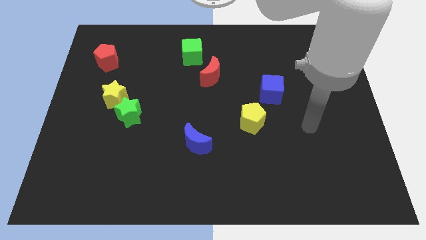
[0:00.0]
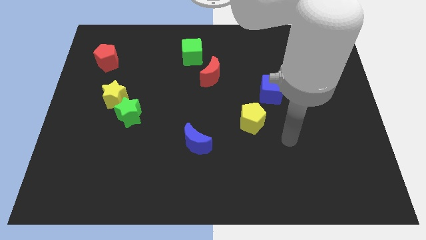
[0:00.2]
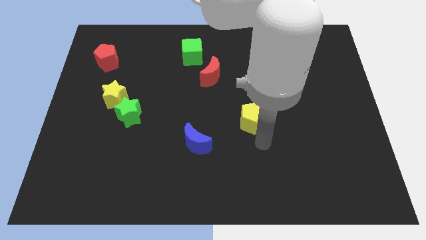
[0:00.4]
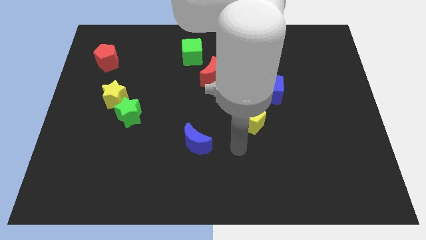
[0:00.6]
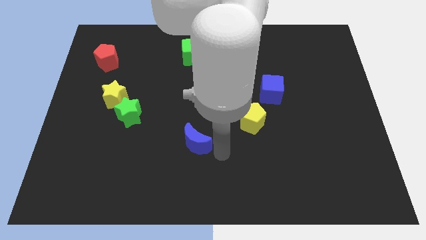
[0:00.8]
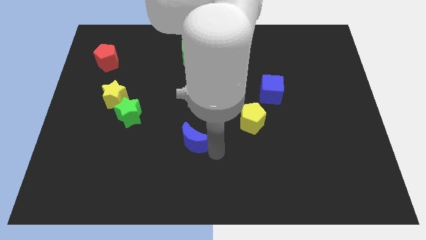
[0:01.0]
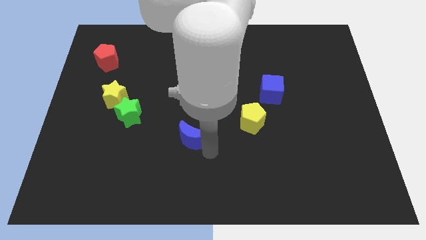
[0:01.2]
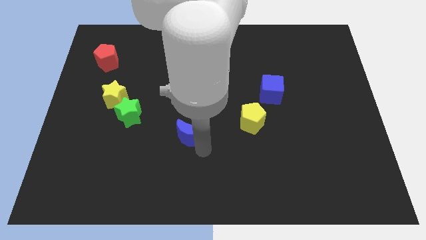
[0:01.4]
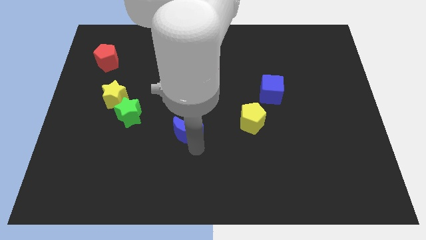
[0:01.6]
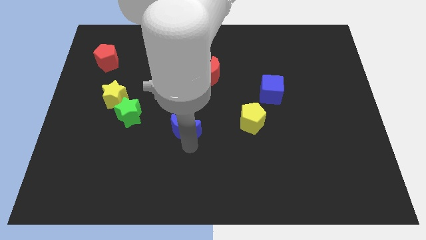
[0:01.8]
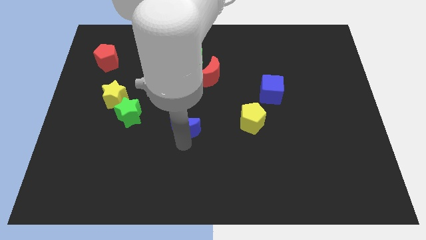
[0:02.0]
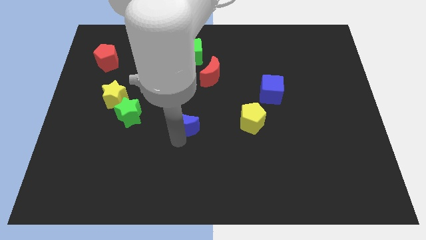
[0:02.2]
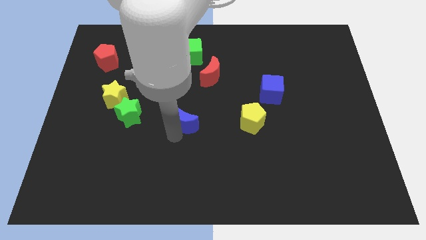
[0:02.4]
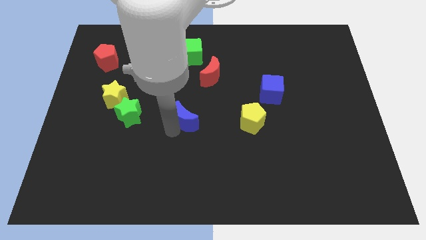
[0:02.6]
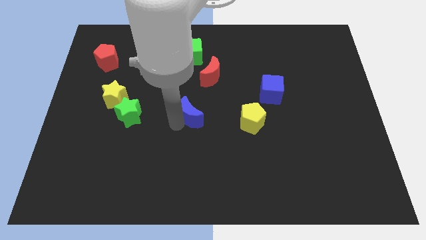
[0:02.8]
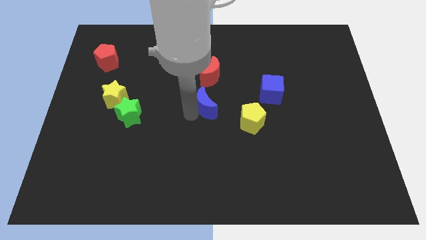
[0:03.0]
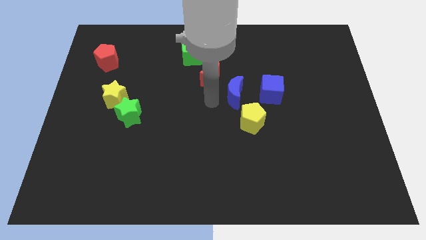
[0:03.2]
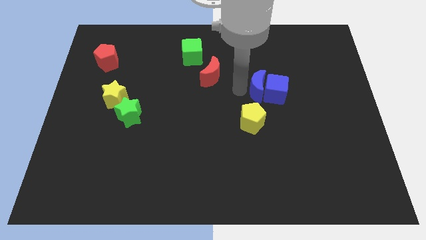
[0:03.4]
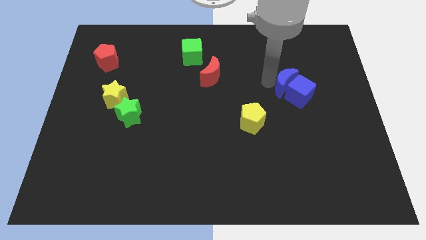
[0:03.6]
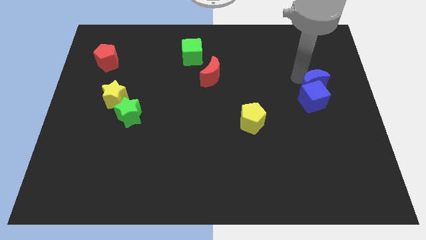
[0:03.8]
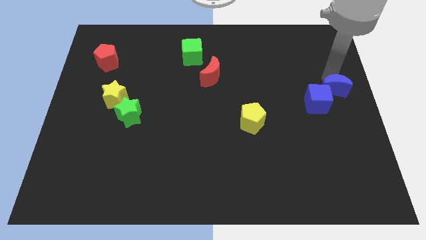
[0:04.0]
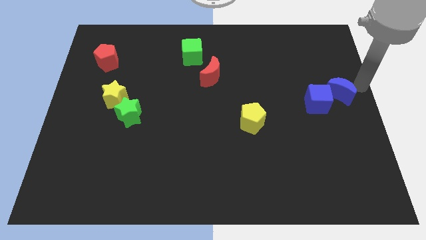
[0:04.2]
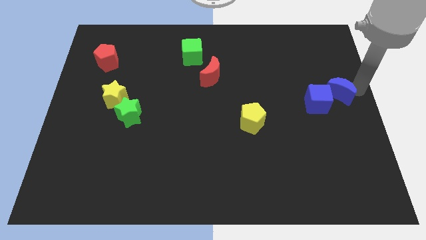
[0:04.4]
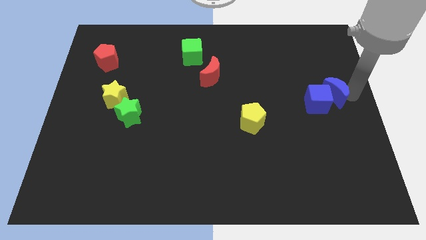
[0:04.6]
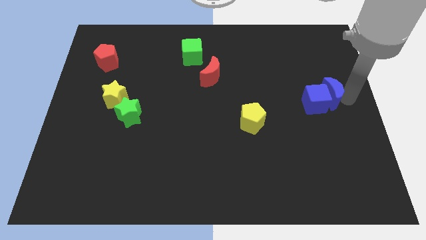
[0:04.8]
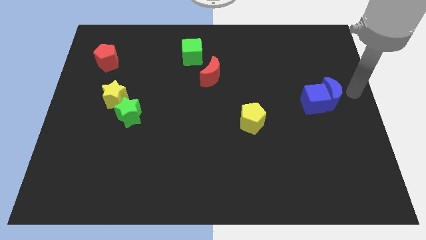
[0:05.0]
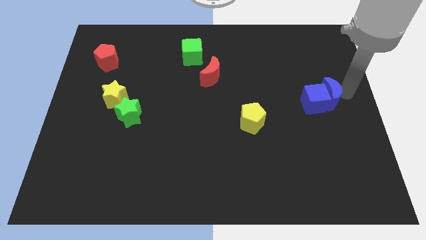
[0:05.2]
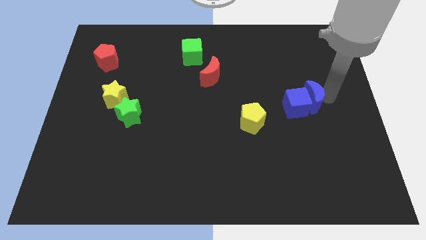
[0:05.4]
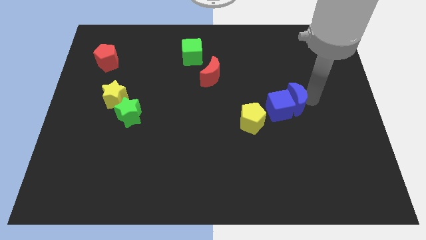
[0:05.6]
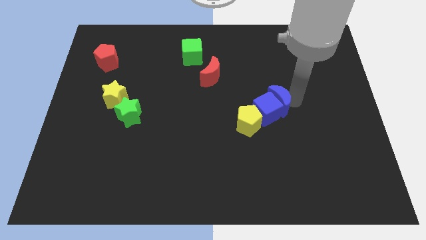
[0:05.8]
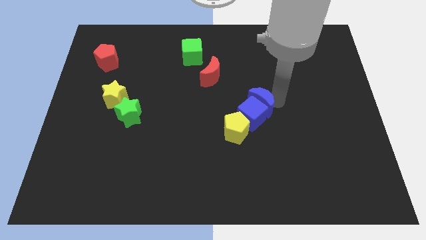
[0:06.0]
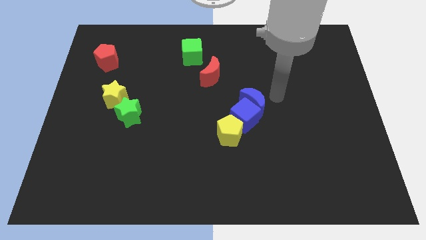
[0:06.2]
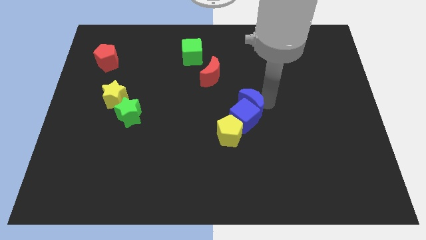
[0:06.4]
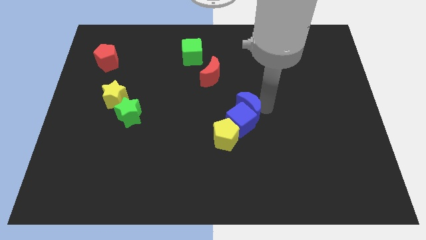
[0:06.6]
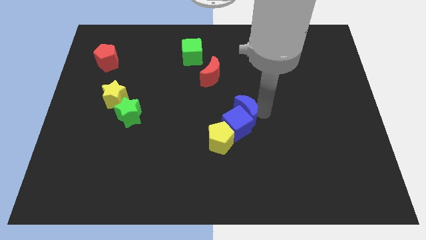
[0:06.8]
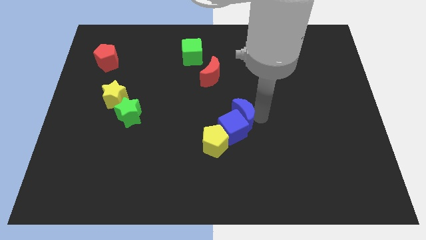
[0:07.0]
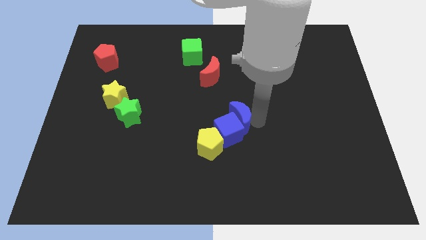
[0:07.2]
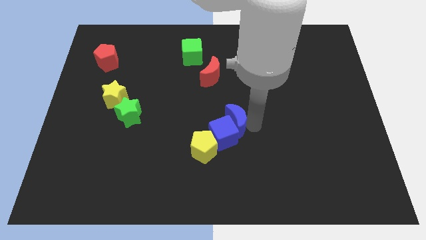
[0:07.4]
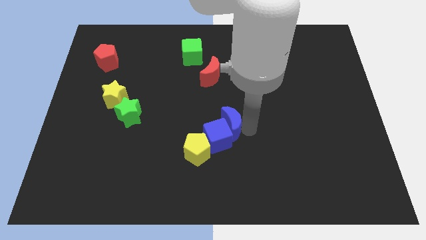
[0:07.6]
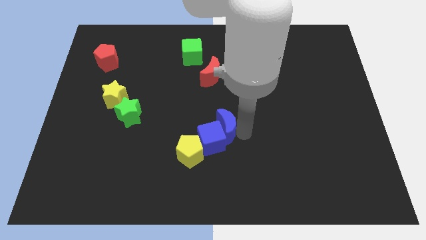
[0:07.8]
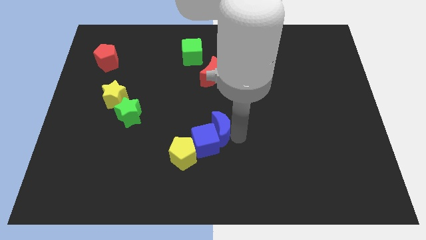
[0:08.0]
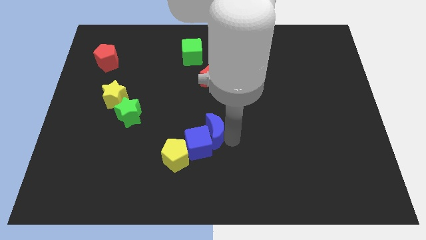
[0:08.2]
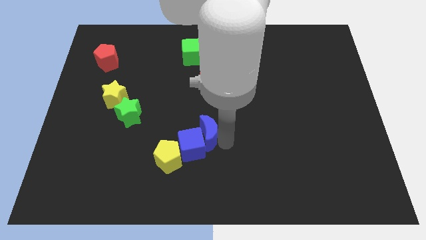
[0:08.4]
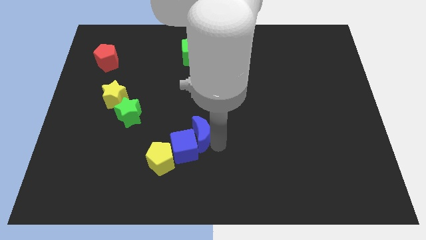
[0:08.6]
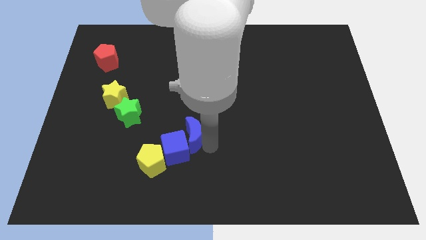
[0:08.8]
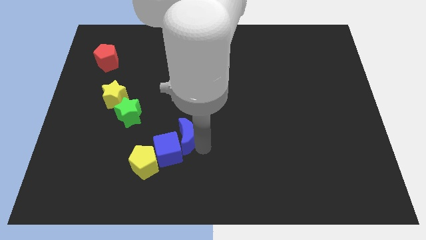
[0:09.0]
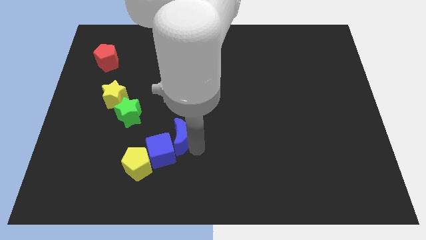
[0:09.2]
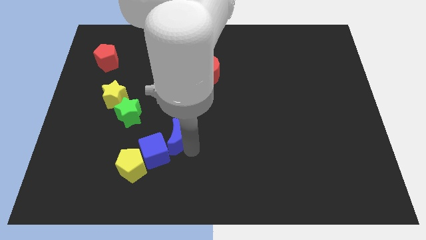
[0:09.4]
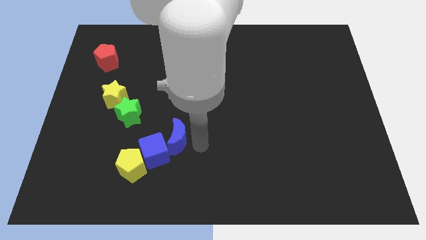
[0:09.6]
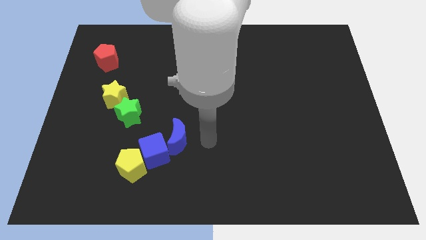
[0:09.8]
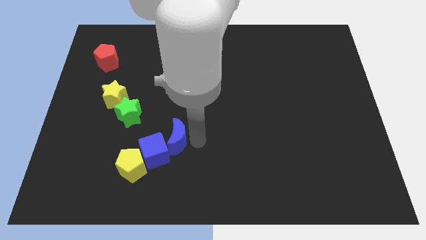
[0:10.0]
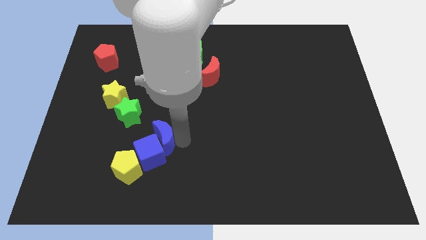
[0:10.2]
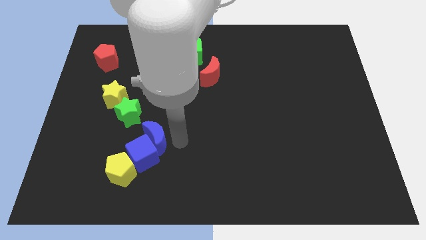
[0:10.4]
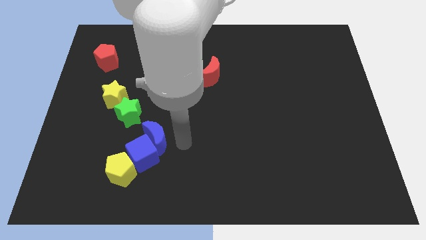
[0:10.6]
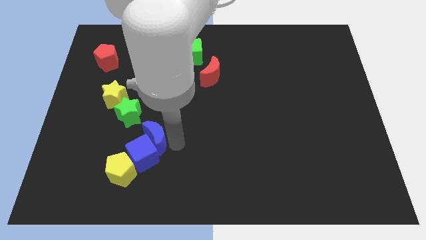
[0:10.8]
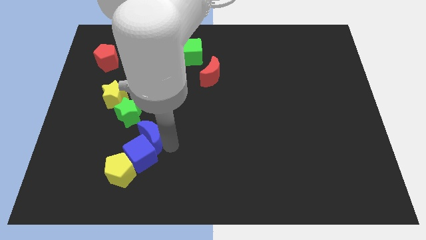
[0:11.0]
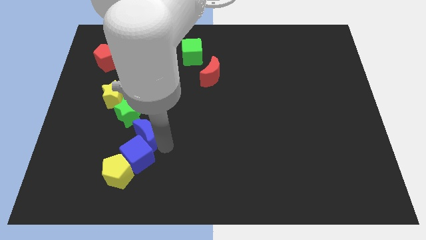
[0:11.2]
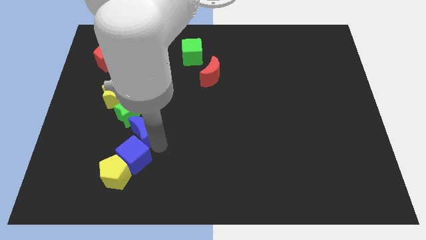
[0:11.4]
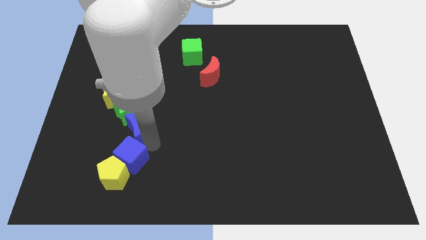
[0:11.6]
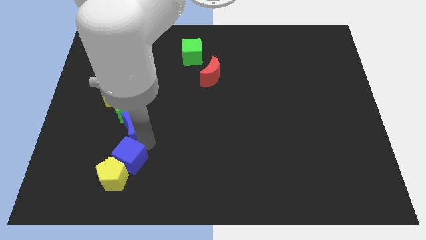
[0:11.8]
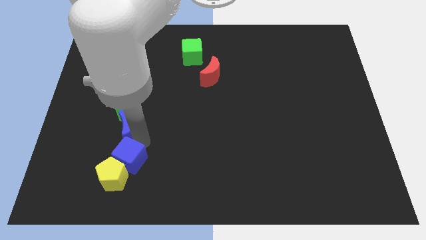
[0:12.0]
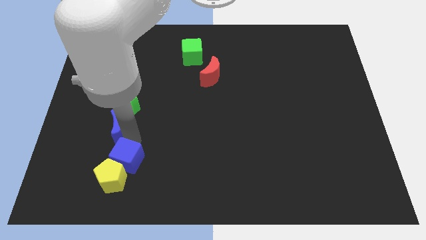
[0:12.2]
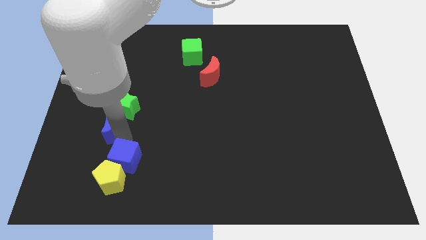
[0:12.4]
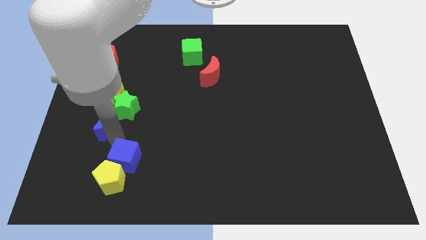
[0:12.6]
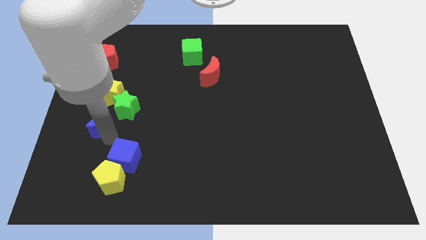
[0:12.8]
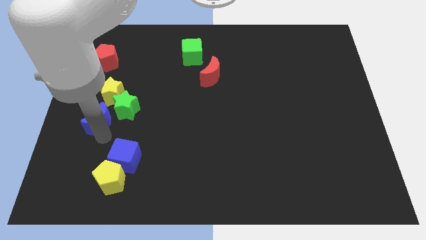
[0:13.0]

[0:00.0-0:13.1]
slide the blue moon to the bottom left side of the yellow star

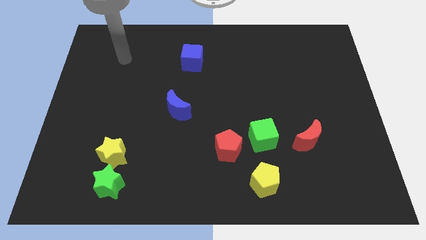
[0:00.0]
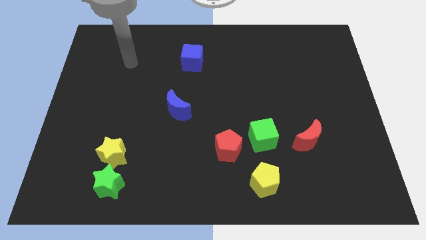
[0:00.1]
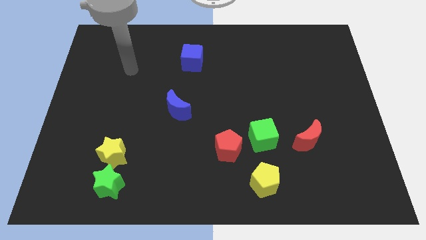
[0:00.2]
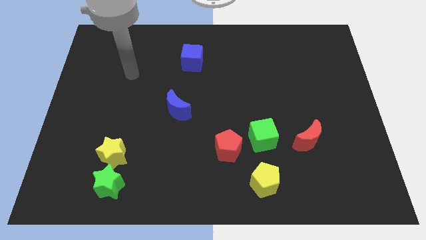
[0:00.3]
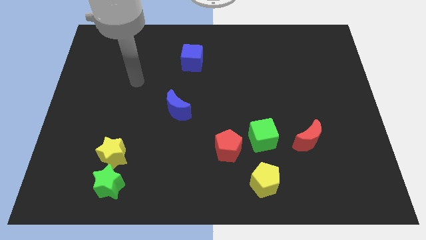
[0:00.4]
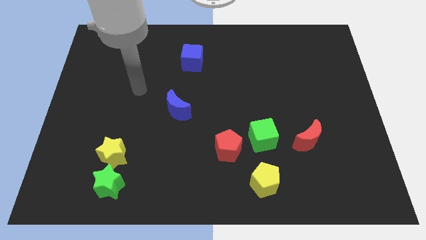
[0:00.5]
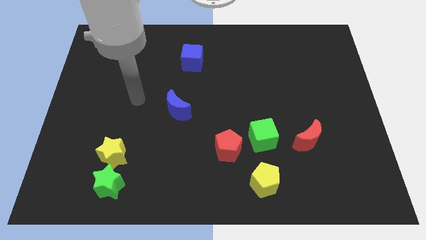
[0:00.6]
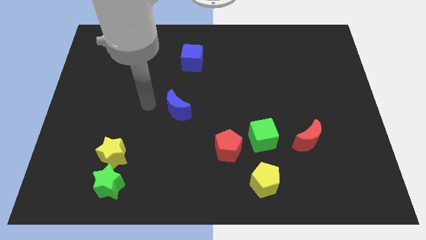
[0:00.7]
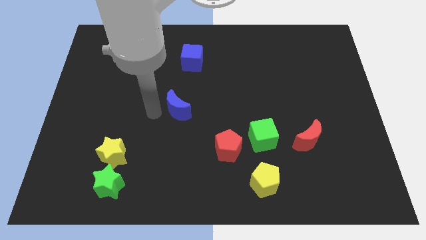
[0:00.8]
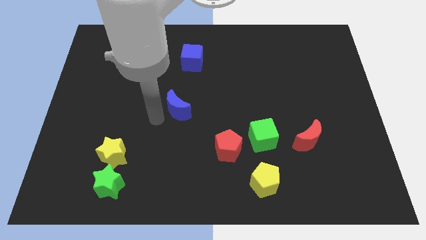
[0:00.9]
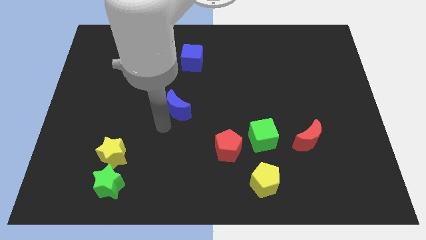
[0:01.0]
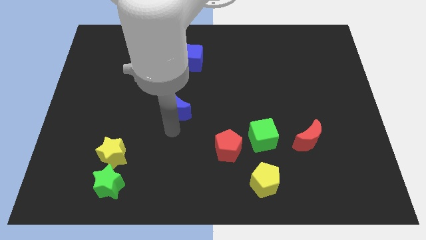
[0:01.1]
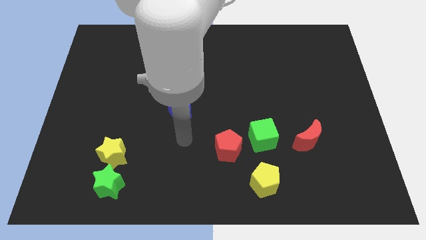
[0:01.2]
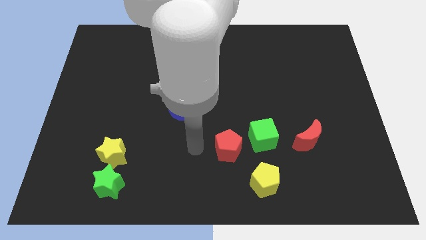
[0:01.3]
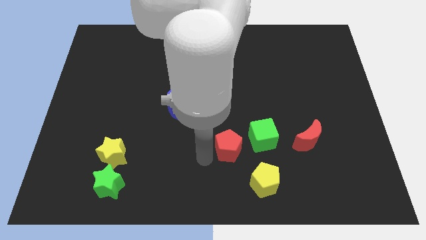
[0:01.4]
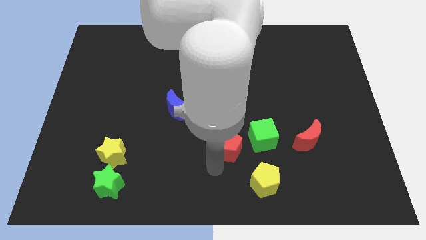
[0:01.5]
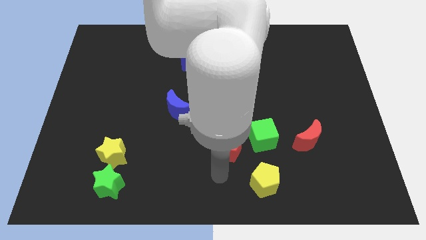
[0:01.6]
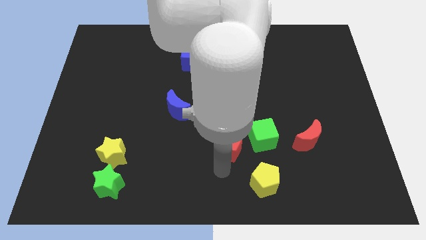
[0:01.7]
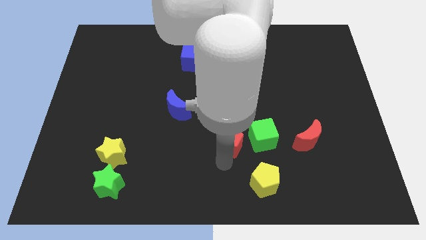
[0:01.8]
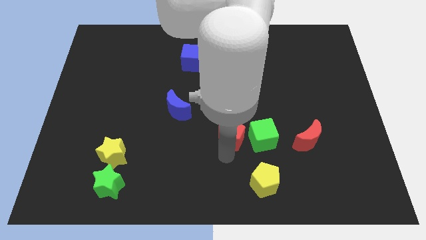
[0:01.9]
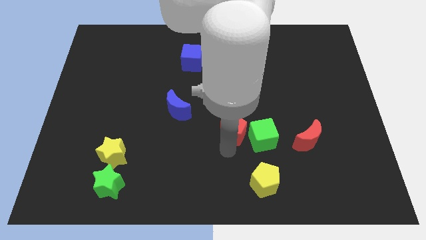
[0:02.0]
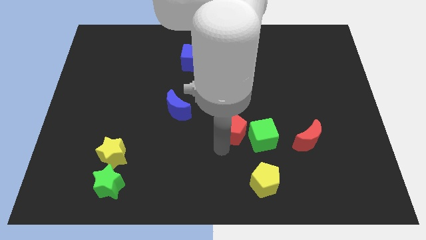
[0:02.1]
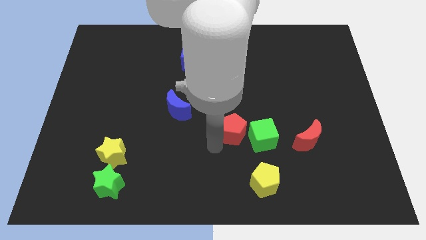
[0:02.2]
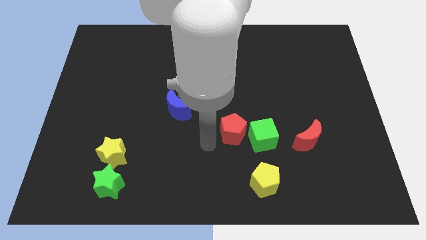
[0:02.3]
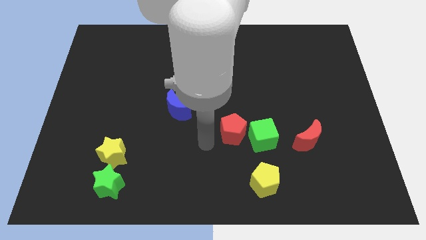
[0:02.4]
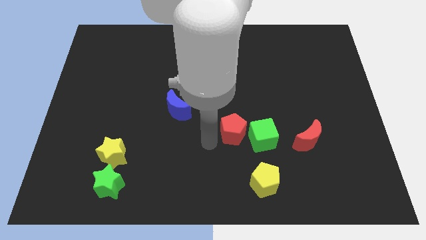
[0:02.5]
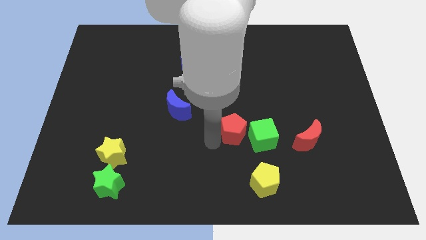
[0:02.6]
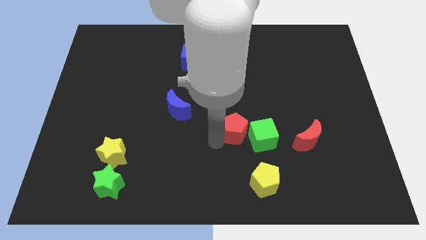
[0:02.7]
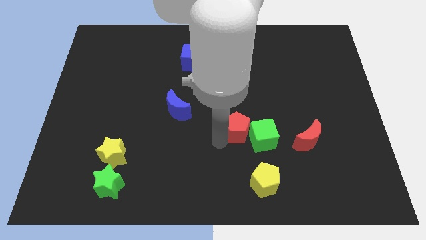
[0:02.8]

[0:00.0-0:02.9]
push the red pentagon to the top side of the yellow pentagon
